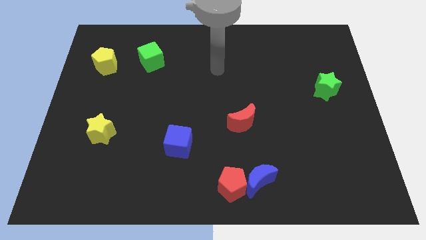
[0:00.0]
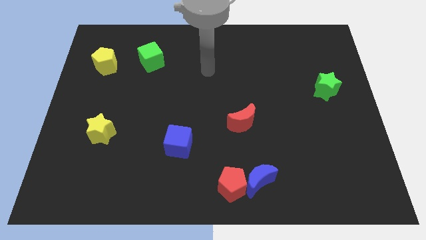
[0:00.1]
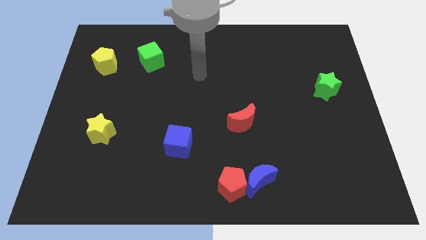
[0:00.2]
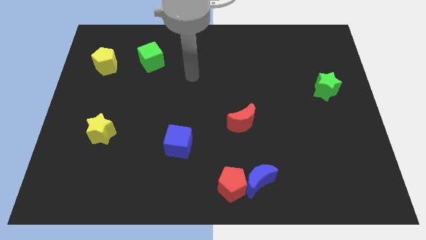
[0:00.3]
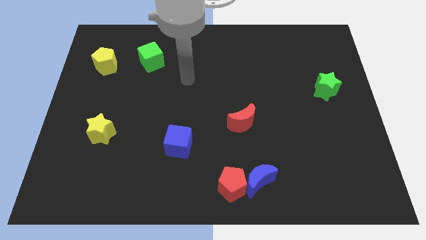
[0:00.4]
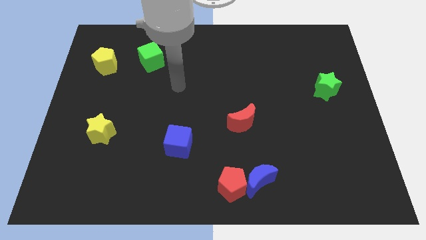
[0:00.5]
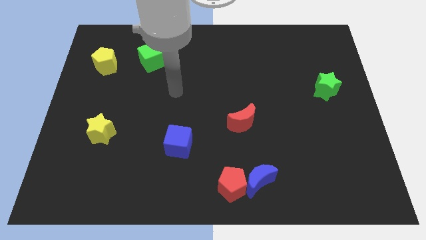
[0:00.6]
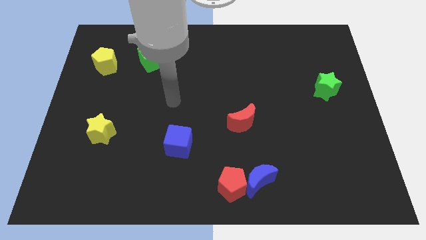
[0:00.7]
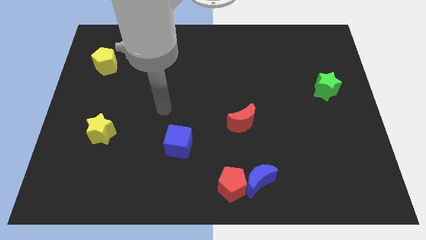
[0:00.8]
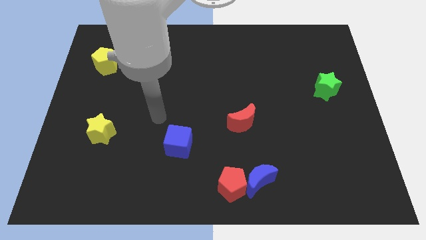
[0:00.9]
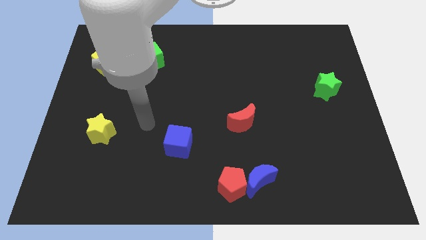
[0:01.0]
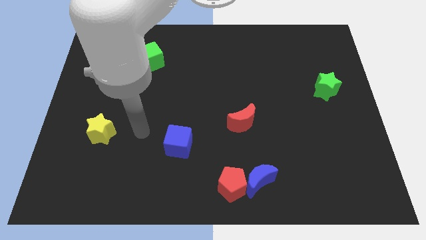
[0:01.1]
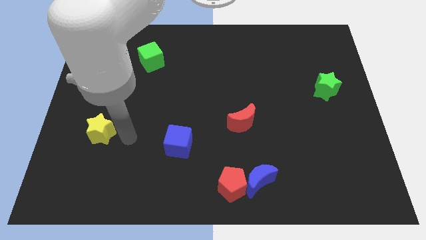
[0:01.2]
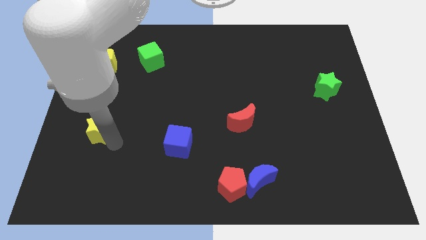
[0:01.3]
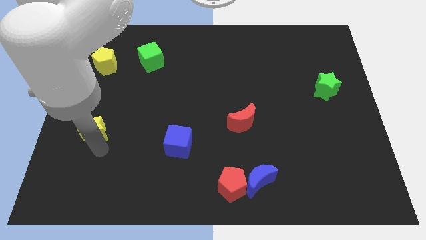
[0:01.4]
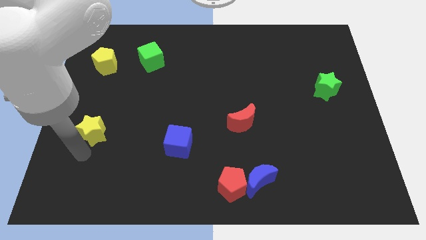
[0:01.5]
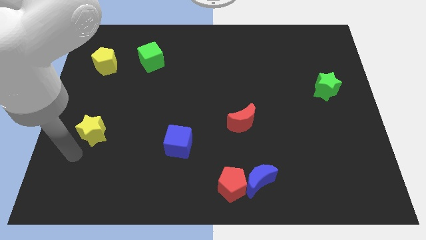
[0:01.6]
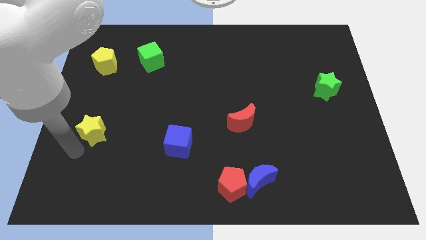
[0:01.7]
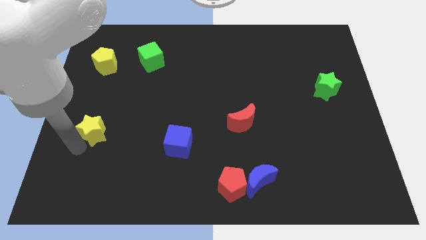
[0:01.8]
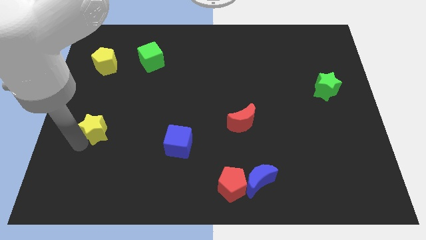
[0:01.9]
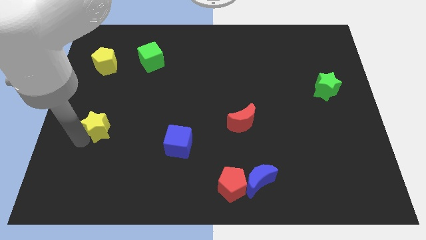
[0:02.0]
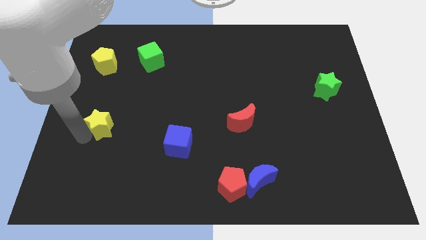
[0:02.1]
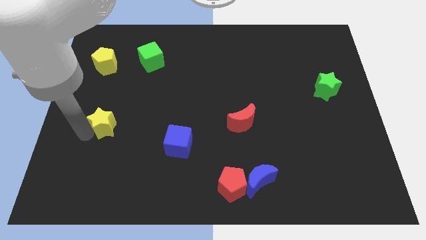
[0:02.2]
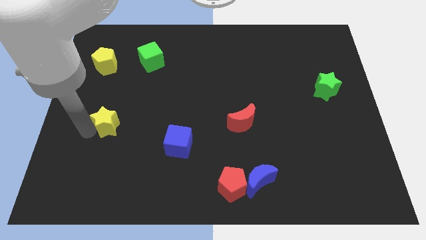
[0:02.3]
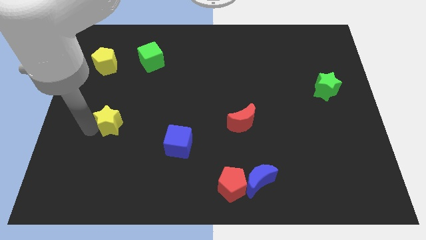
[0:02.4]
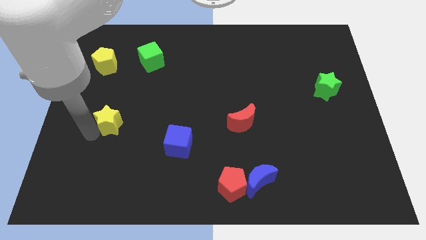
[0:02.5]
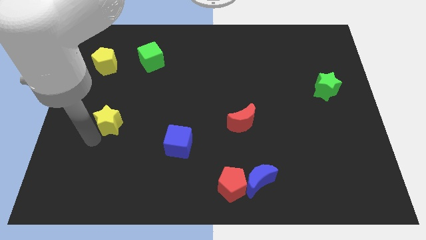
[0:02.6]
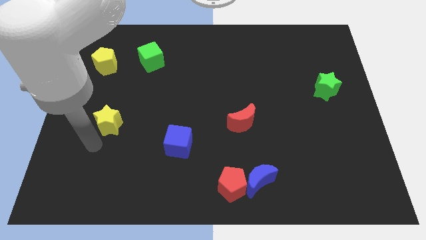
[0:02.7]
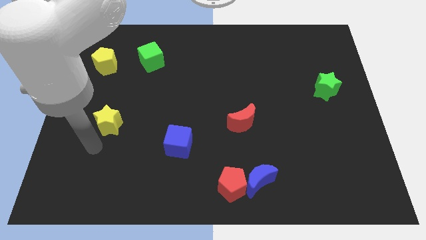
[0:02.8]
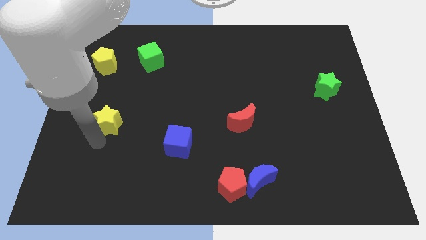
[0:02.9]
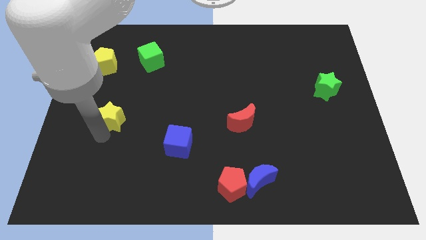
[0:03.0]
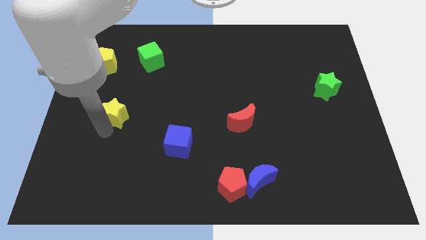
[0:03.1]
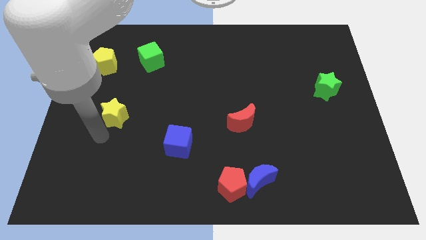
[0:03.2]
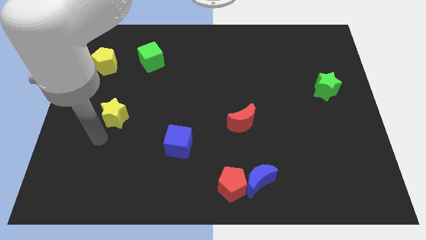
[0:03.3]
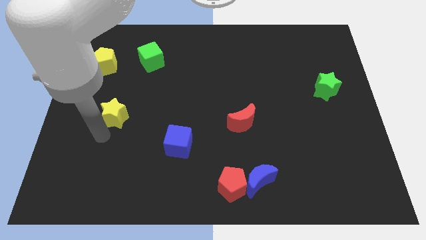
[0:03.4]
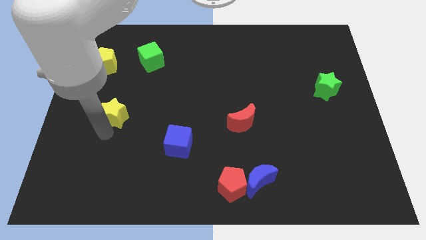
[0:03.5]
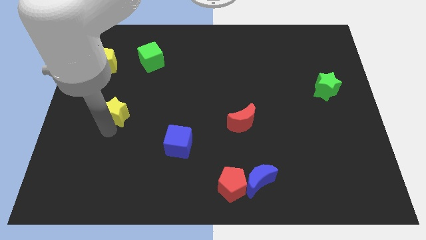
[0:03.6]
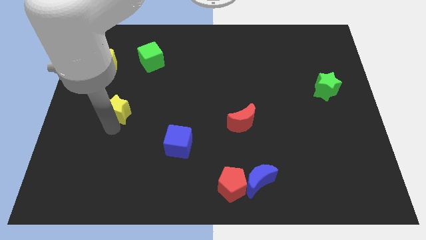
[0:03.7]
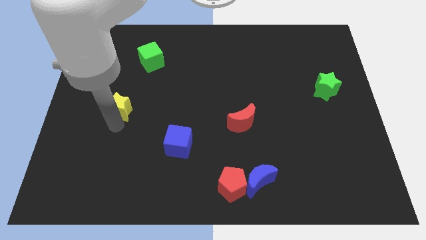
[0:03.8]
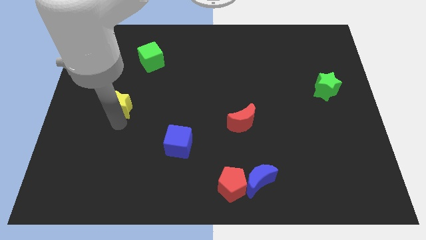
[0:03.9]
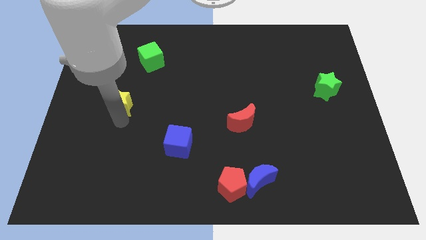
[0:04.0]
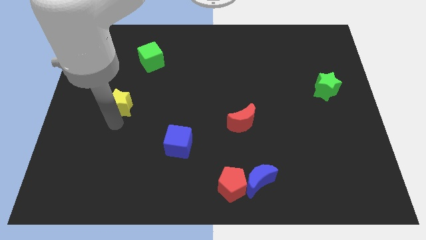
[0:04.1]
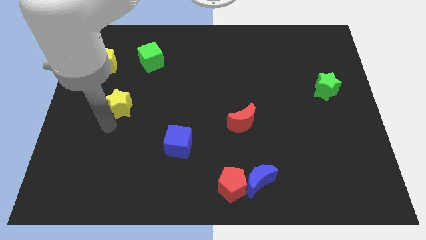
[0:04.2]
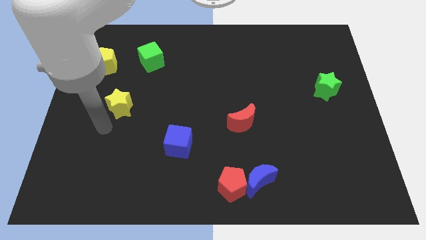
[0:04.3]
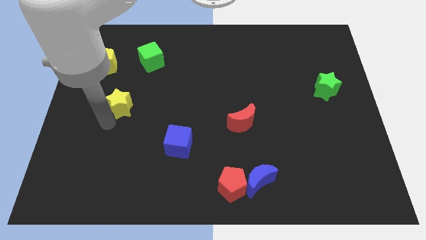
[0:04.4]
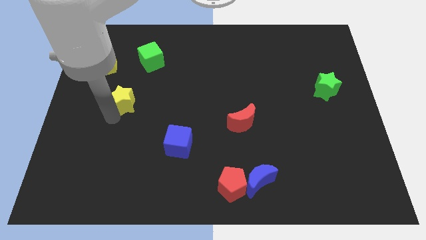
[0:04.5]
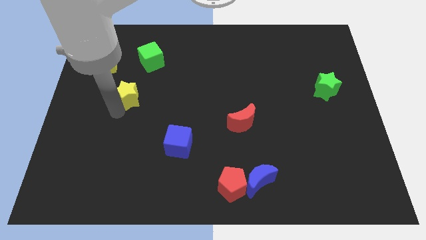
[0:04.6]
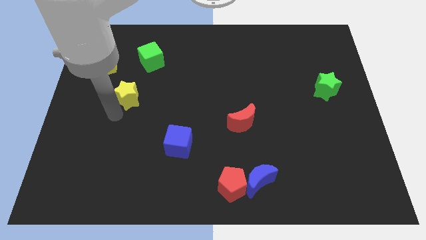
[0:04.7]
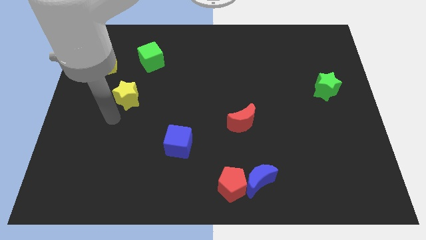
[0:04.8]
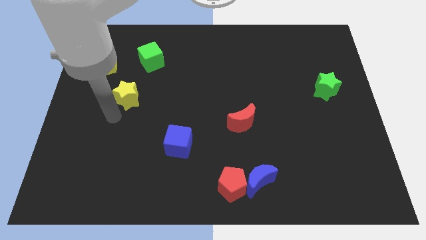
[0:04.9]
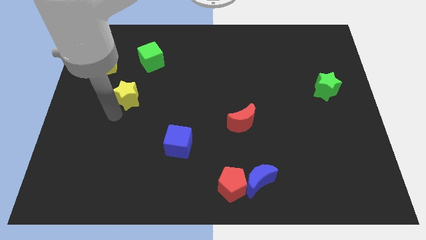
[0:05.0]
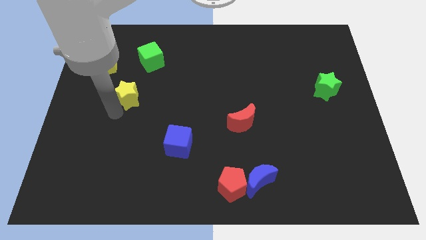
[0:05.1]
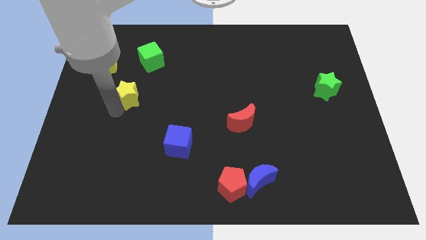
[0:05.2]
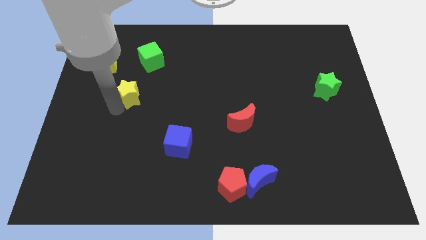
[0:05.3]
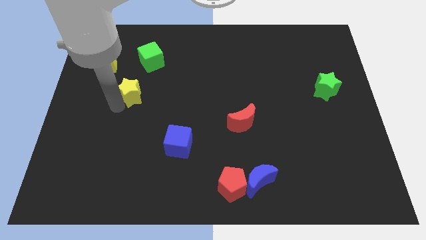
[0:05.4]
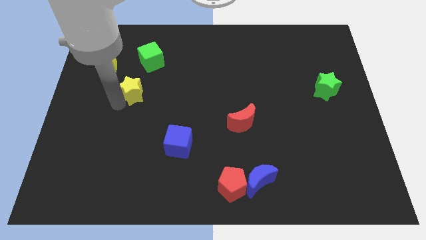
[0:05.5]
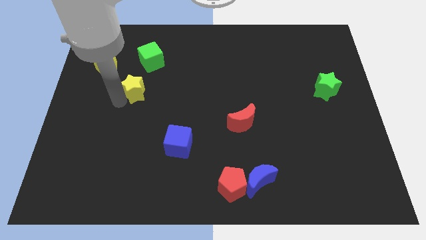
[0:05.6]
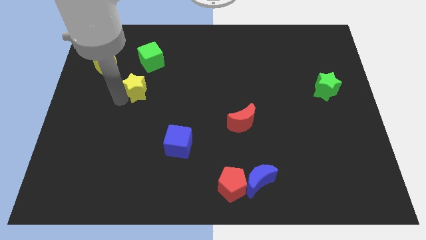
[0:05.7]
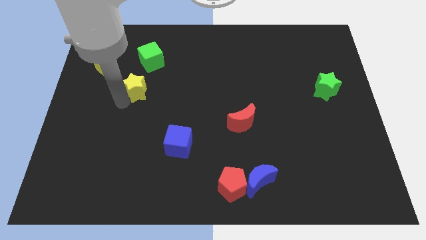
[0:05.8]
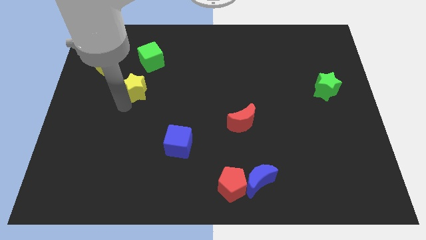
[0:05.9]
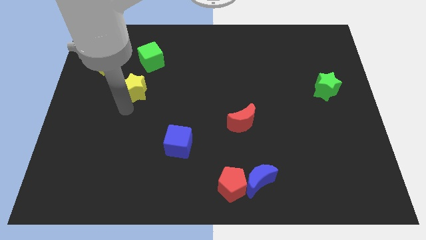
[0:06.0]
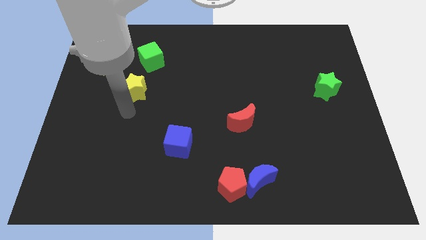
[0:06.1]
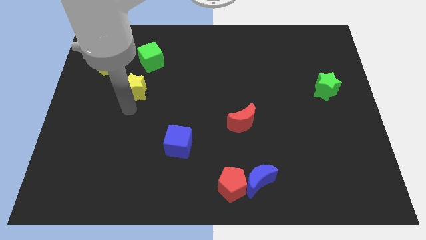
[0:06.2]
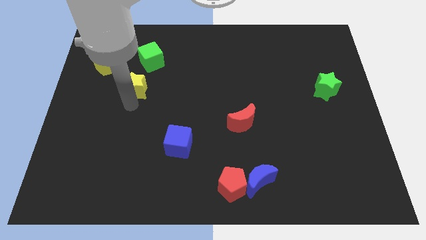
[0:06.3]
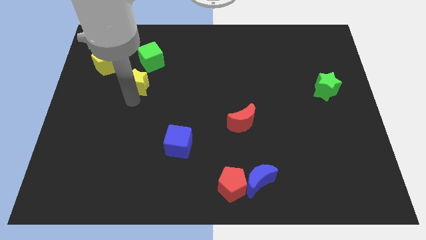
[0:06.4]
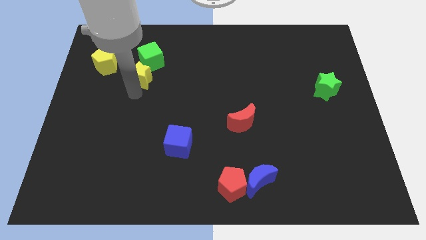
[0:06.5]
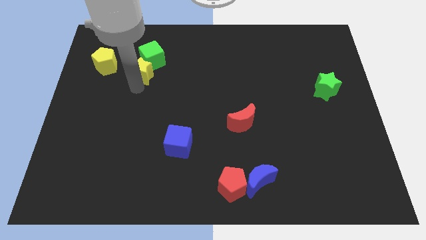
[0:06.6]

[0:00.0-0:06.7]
move the yellow star close to the green cube
